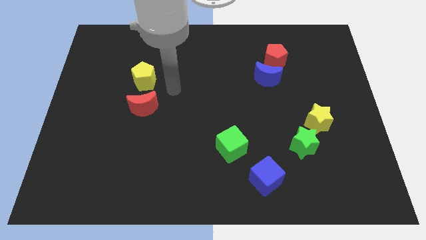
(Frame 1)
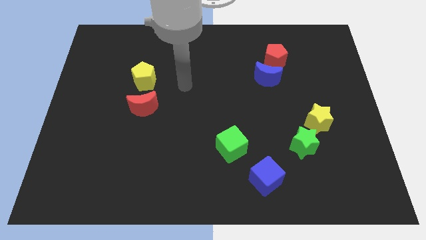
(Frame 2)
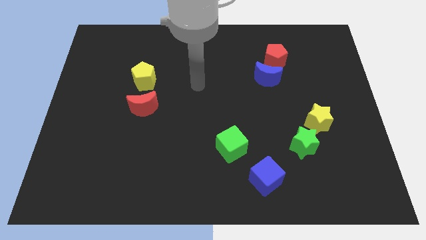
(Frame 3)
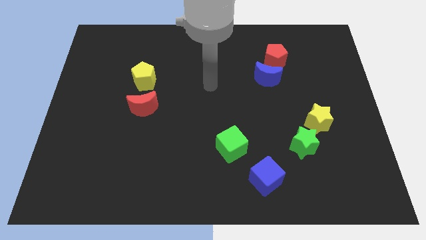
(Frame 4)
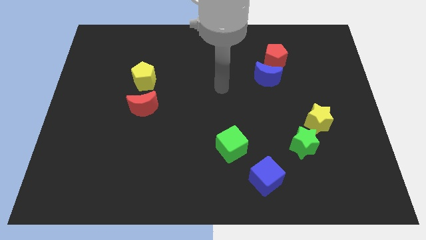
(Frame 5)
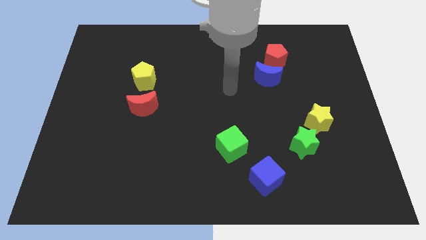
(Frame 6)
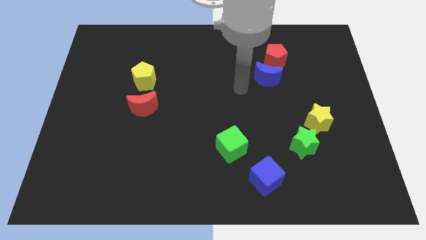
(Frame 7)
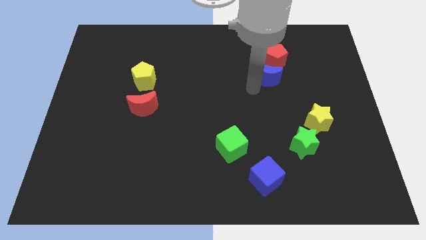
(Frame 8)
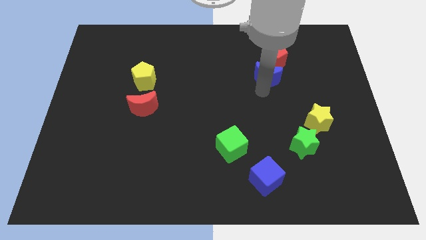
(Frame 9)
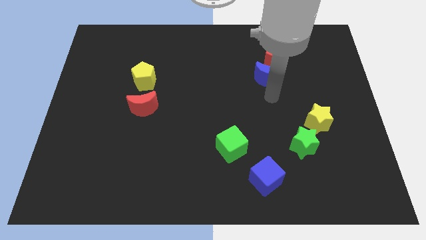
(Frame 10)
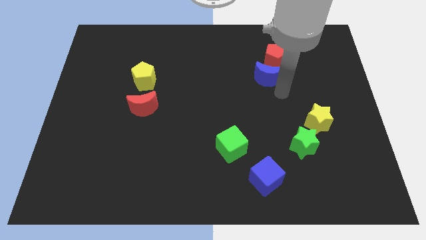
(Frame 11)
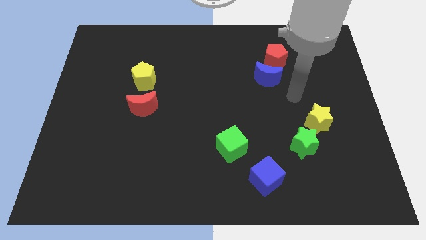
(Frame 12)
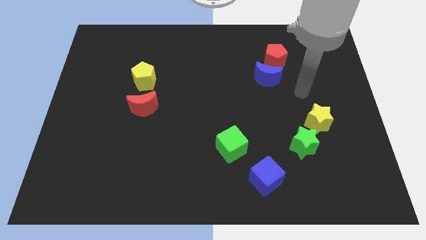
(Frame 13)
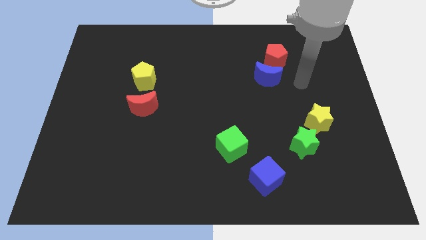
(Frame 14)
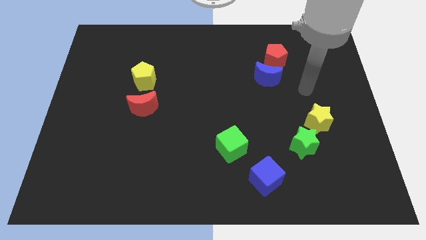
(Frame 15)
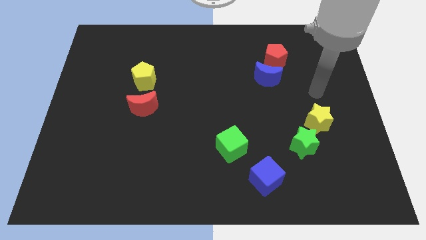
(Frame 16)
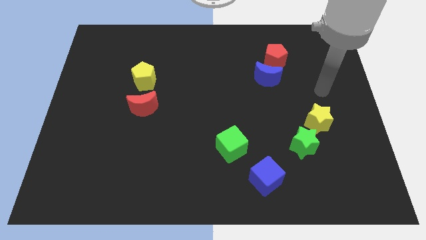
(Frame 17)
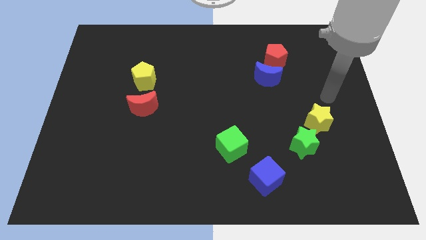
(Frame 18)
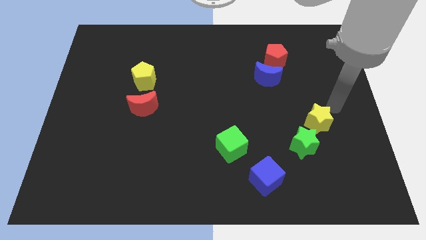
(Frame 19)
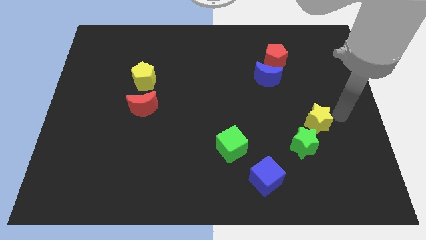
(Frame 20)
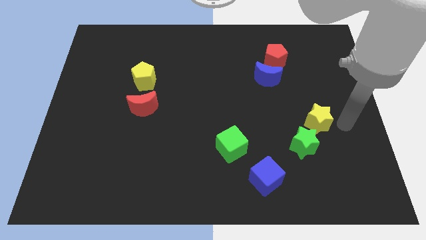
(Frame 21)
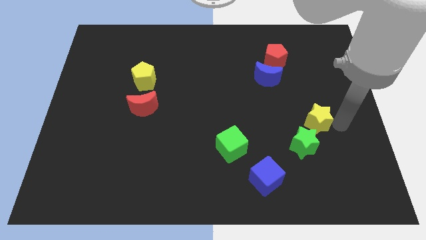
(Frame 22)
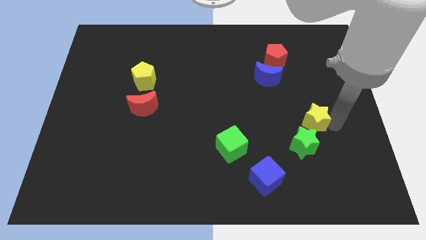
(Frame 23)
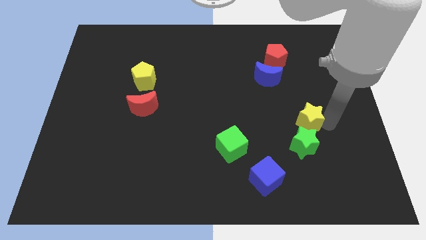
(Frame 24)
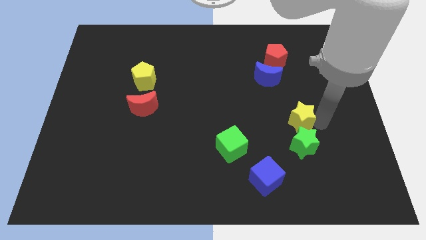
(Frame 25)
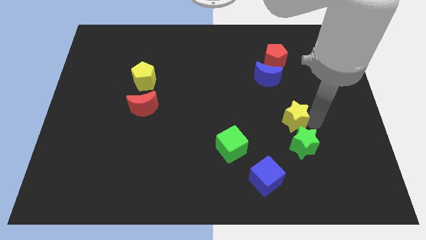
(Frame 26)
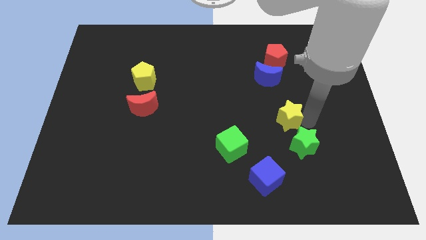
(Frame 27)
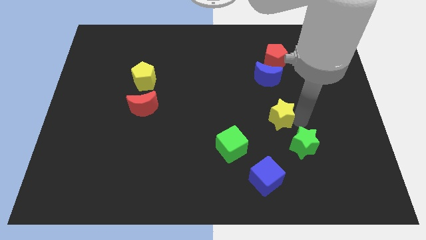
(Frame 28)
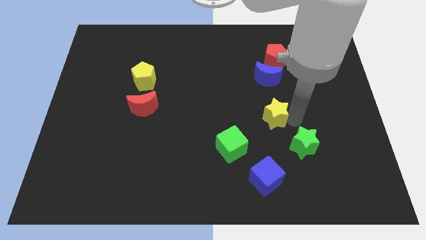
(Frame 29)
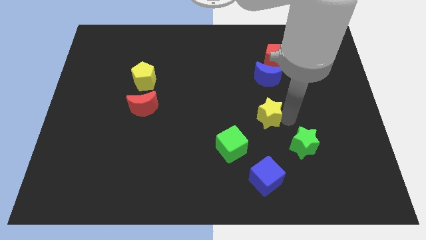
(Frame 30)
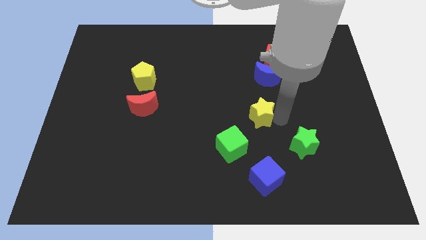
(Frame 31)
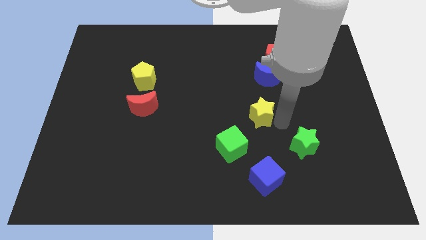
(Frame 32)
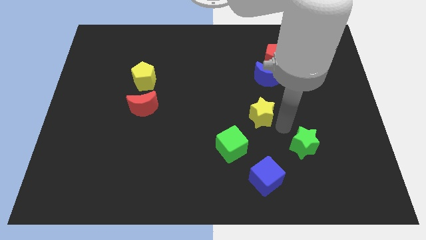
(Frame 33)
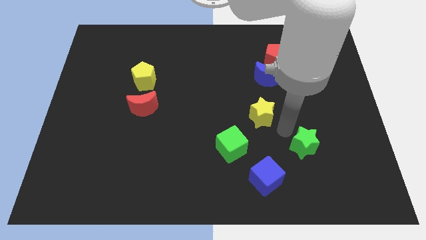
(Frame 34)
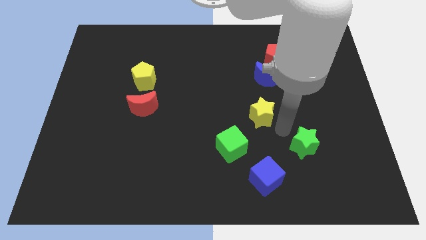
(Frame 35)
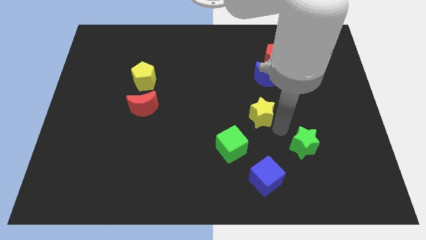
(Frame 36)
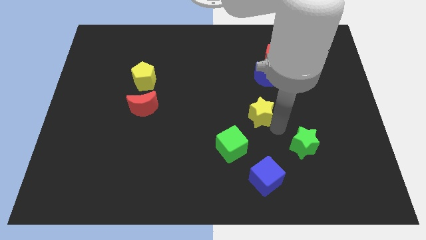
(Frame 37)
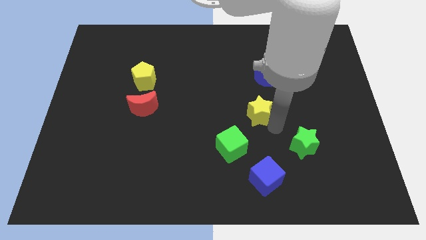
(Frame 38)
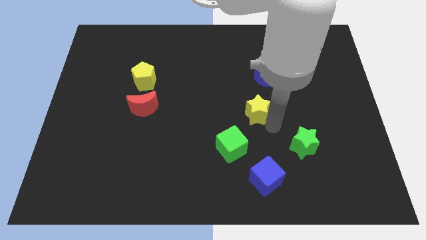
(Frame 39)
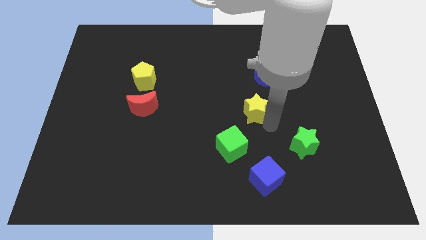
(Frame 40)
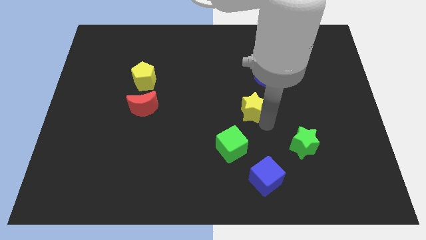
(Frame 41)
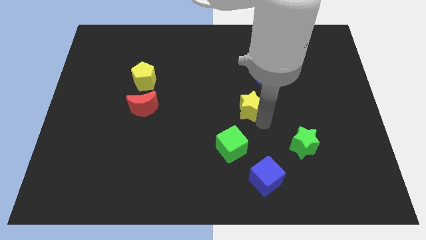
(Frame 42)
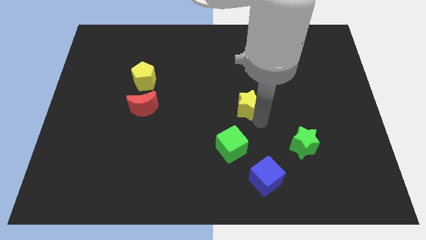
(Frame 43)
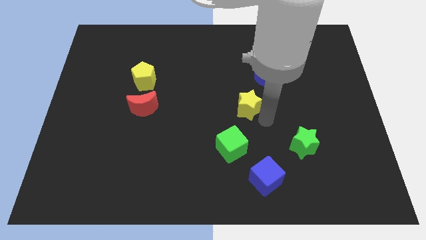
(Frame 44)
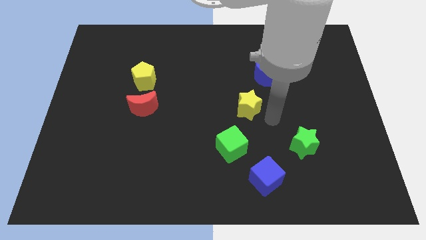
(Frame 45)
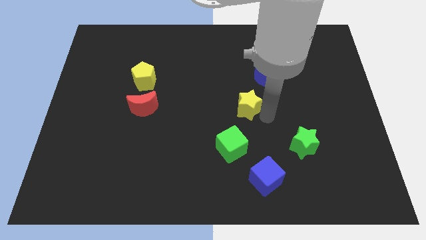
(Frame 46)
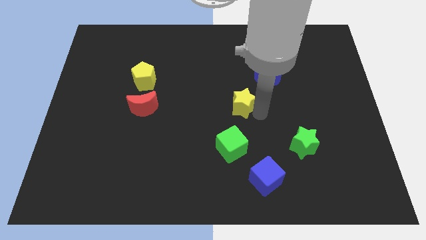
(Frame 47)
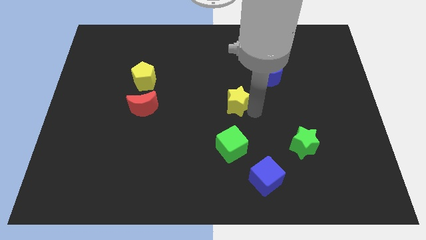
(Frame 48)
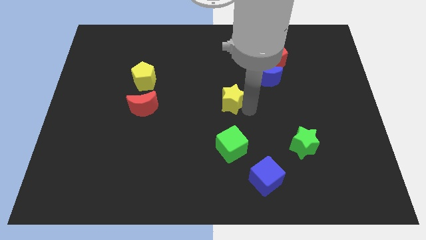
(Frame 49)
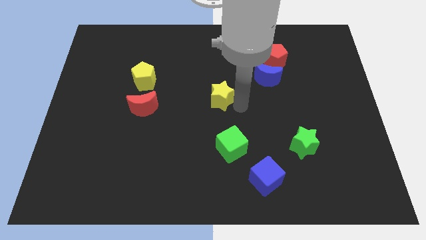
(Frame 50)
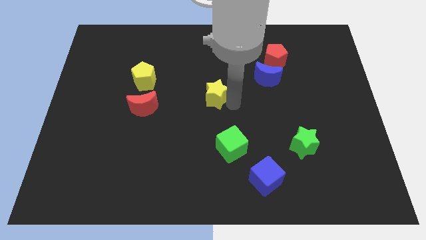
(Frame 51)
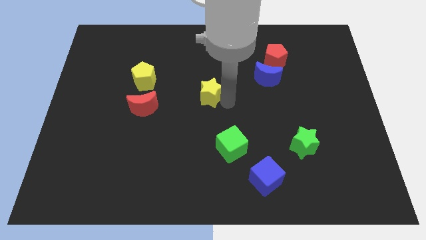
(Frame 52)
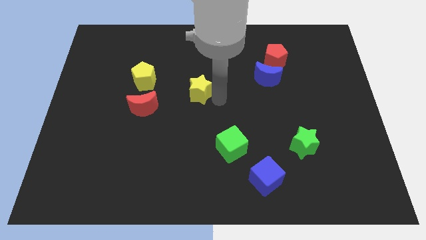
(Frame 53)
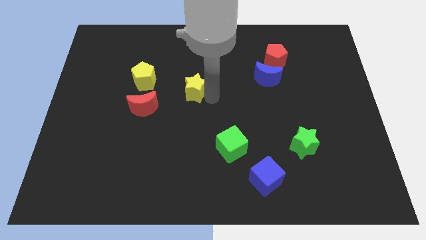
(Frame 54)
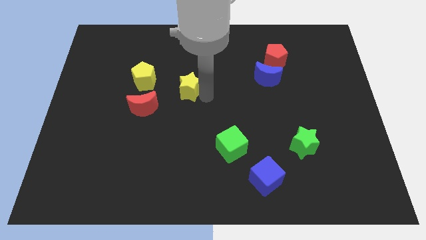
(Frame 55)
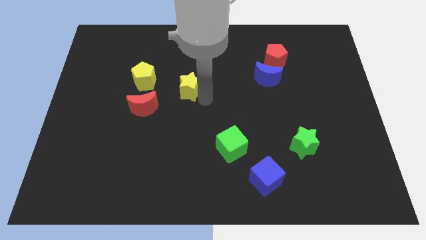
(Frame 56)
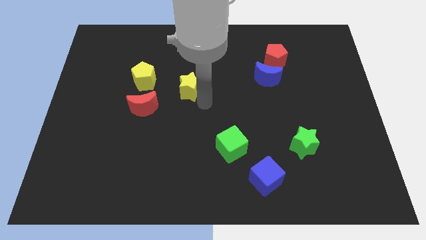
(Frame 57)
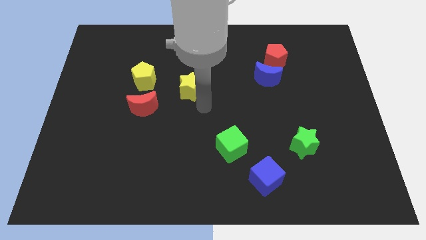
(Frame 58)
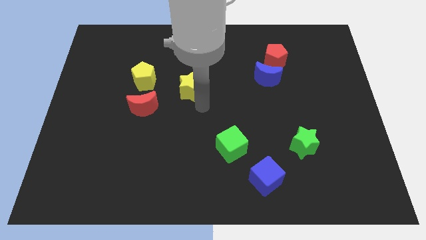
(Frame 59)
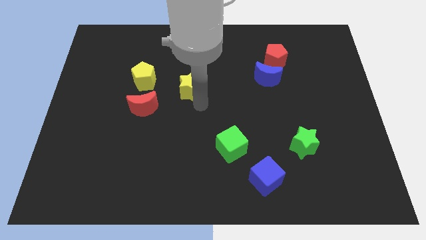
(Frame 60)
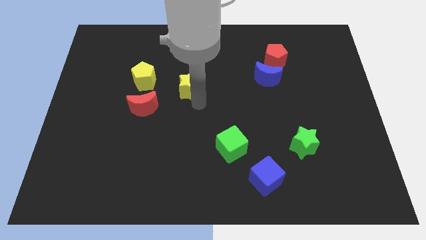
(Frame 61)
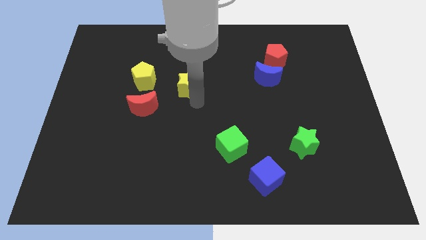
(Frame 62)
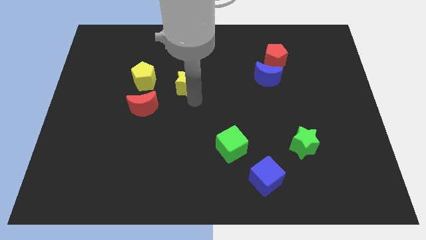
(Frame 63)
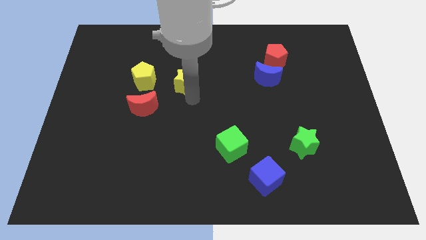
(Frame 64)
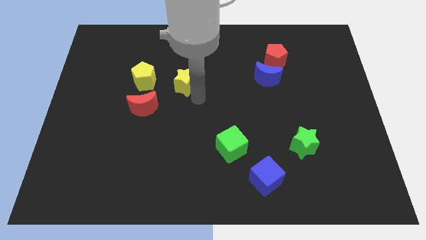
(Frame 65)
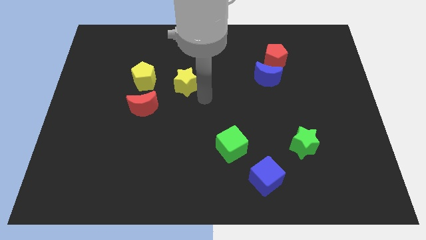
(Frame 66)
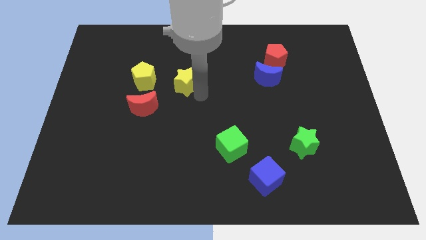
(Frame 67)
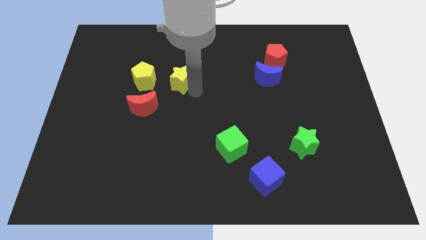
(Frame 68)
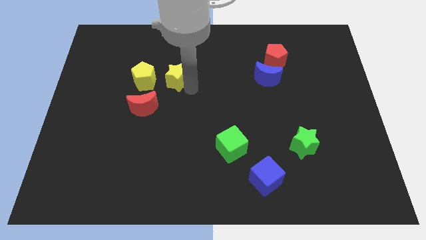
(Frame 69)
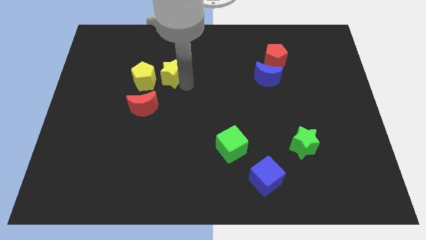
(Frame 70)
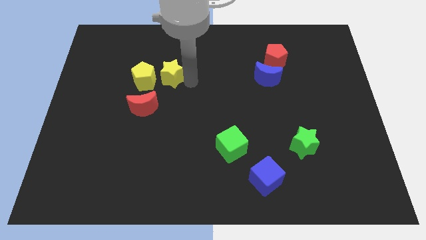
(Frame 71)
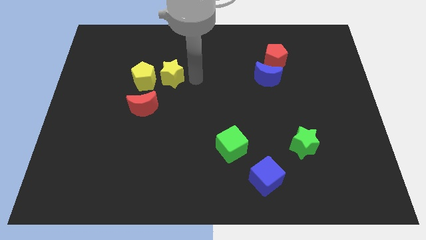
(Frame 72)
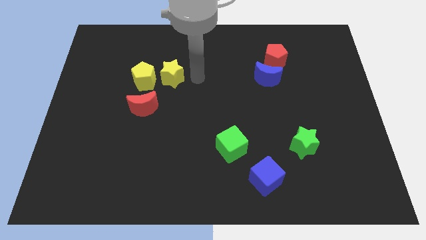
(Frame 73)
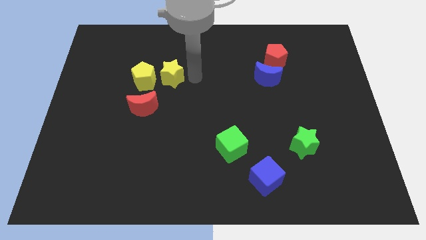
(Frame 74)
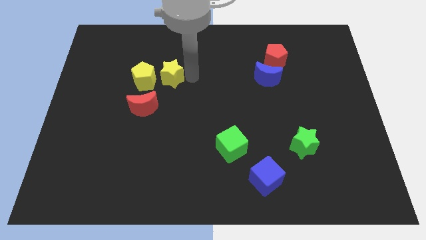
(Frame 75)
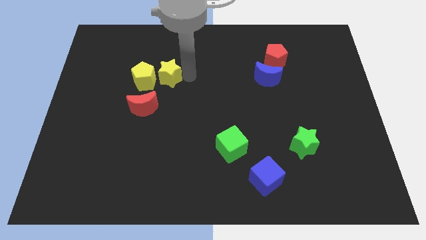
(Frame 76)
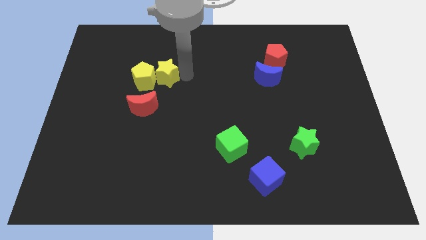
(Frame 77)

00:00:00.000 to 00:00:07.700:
move the yellow star to the top of the red moon
